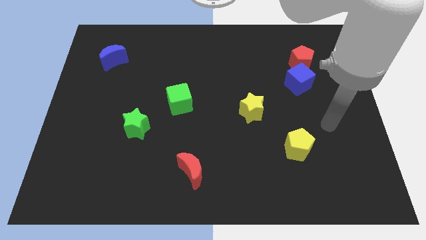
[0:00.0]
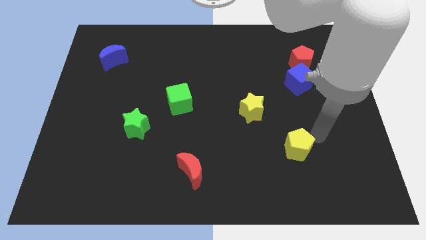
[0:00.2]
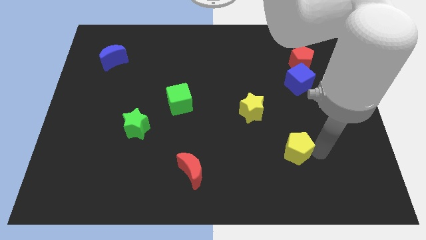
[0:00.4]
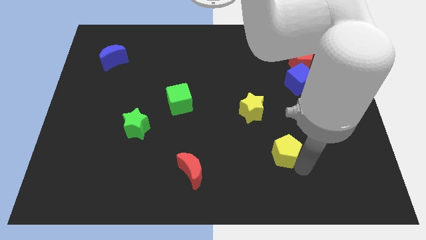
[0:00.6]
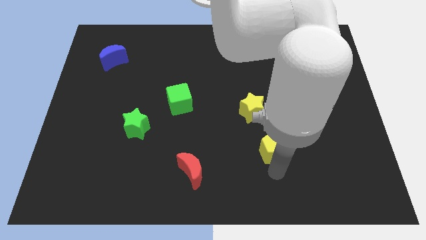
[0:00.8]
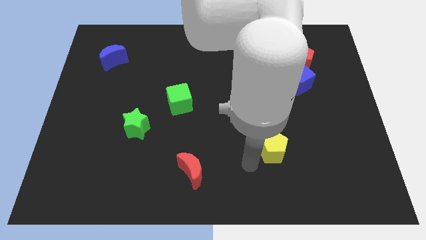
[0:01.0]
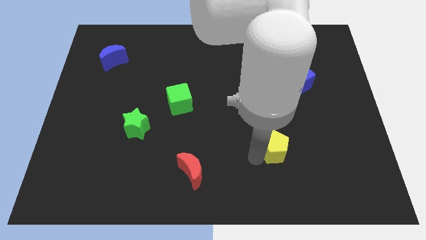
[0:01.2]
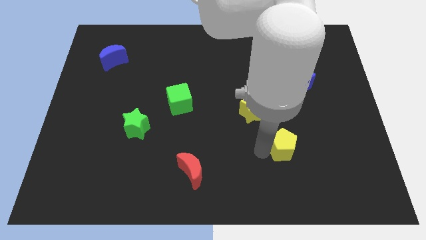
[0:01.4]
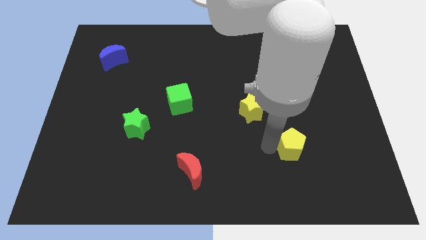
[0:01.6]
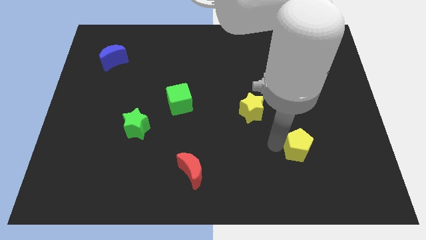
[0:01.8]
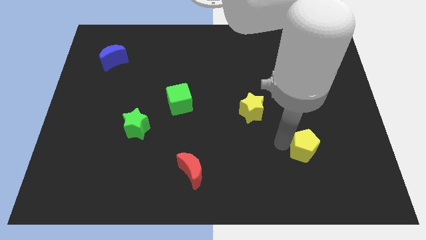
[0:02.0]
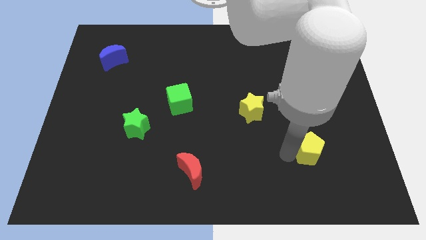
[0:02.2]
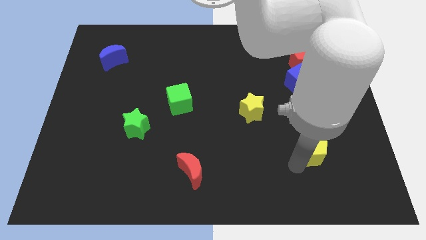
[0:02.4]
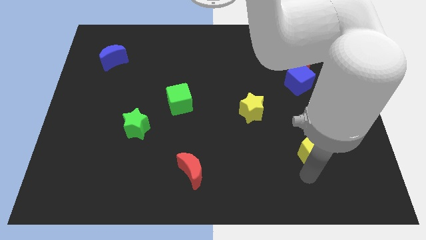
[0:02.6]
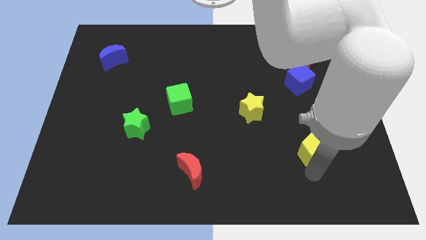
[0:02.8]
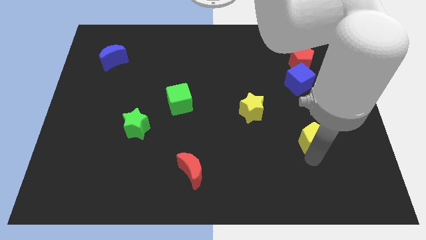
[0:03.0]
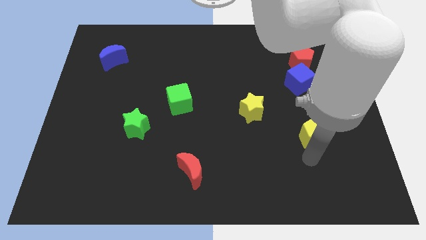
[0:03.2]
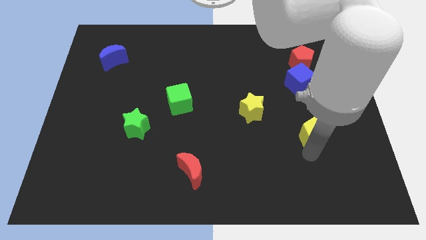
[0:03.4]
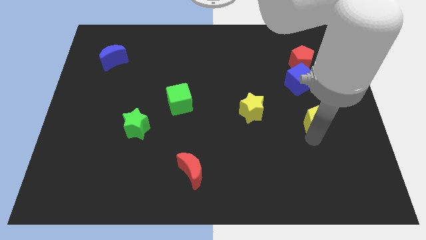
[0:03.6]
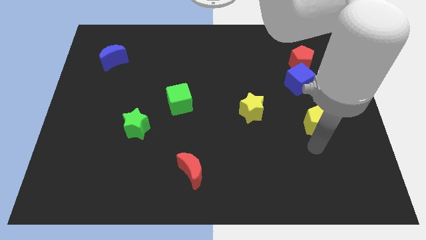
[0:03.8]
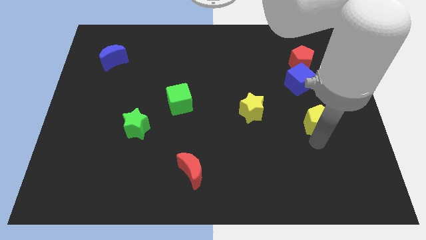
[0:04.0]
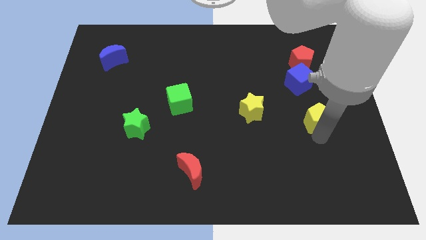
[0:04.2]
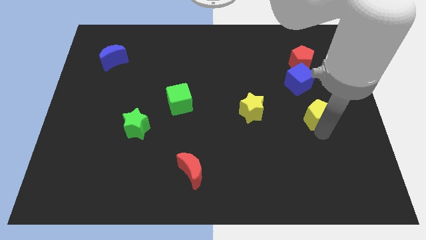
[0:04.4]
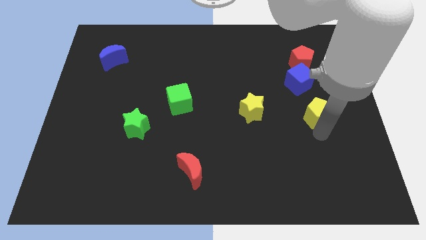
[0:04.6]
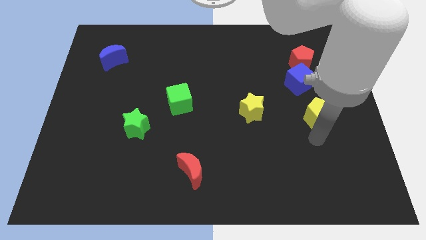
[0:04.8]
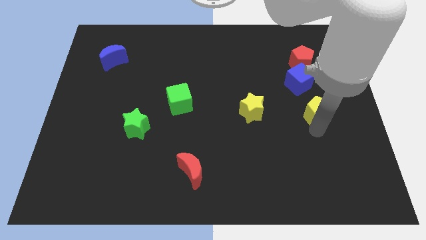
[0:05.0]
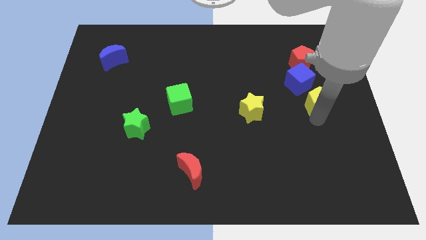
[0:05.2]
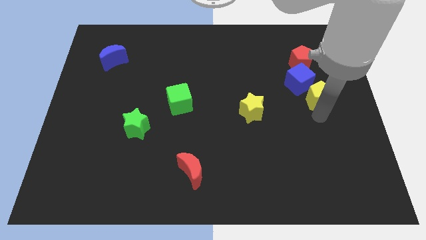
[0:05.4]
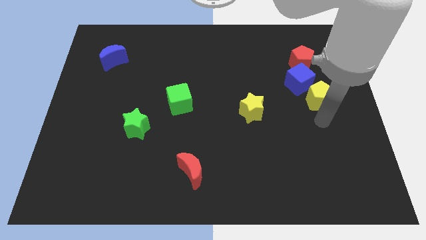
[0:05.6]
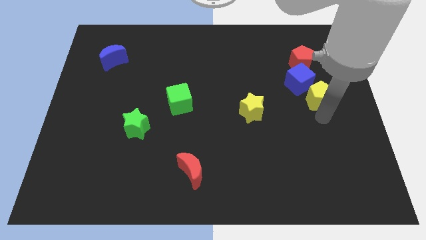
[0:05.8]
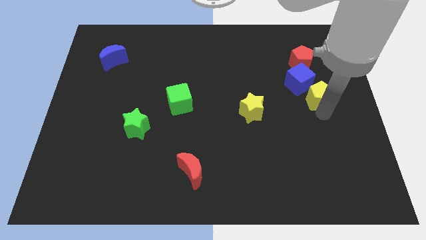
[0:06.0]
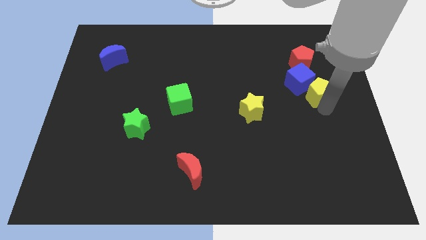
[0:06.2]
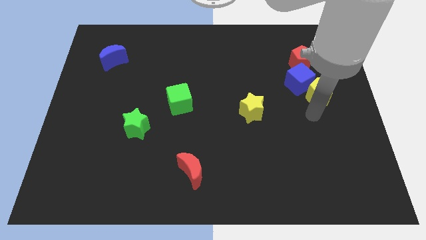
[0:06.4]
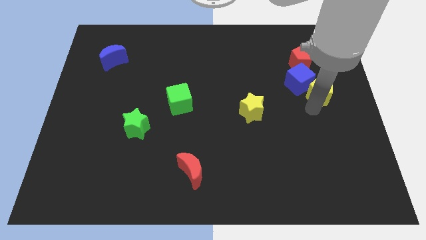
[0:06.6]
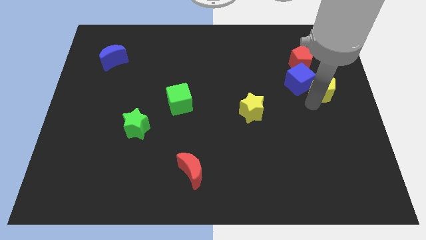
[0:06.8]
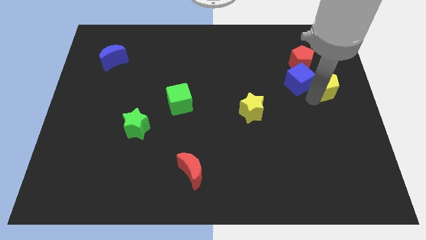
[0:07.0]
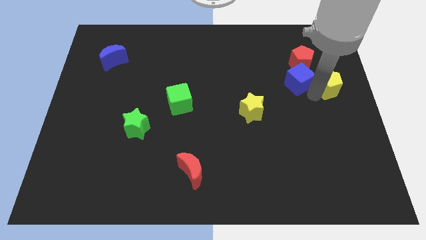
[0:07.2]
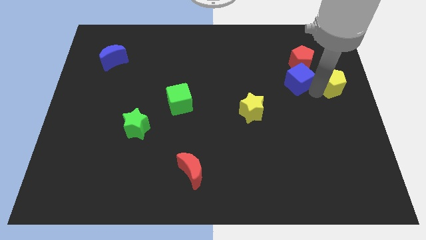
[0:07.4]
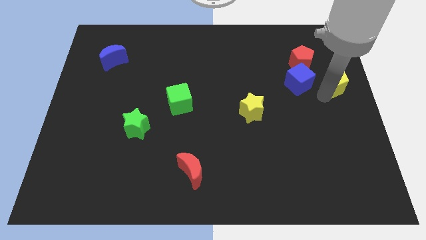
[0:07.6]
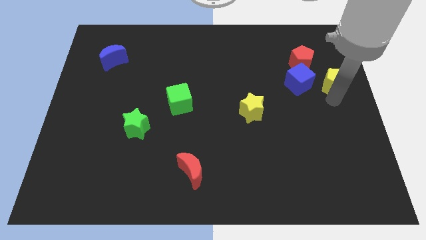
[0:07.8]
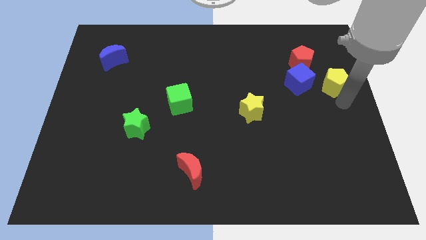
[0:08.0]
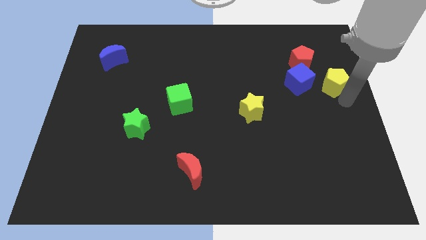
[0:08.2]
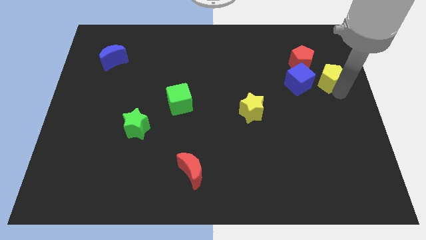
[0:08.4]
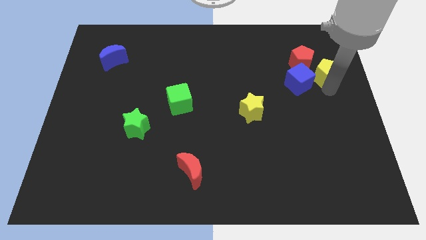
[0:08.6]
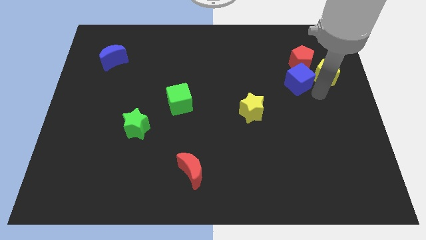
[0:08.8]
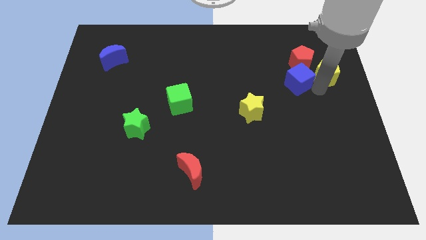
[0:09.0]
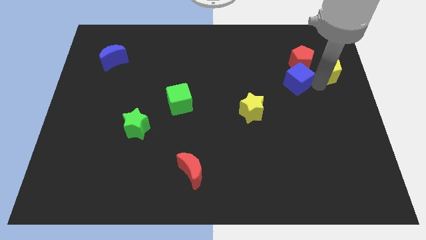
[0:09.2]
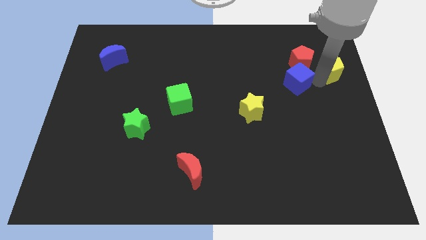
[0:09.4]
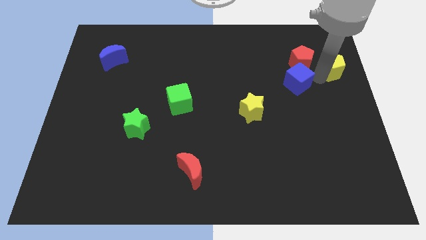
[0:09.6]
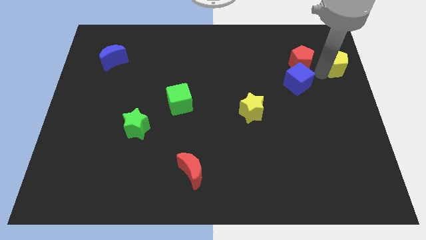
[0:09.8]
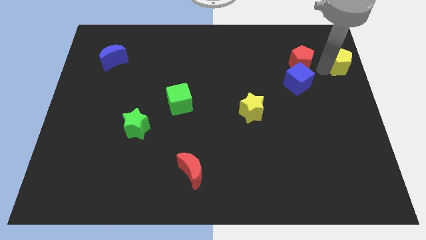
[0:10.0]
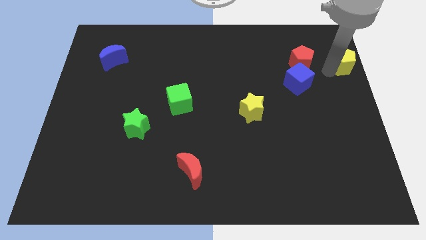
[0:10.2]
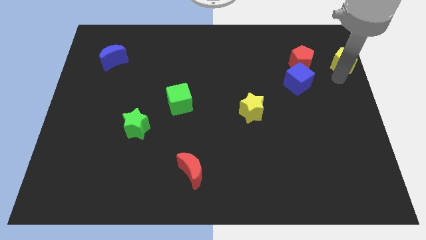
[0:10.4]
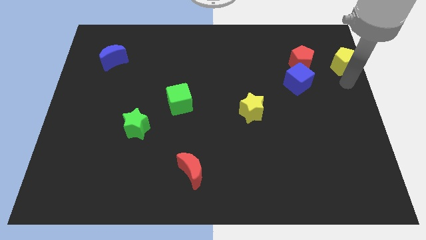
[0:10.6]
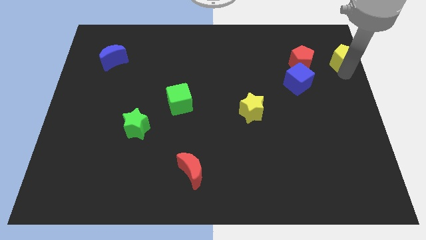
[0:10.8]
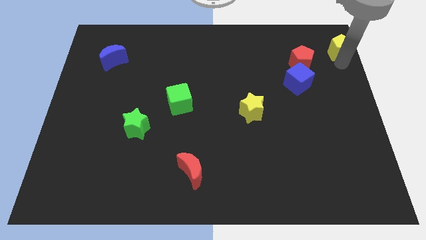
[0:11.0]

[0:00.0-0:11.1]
slide the yellow pentagon to the top right corner

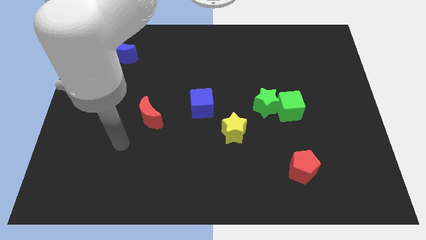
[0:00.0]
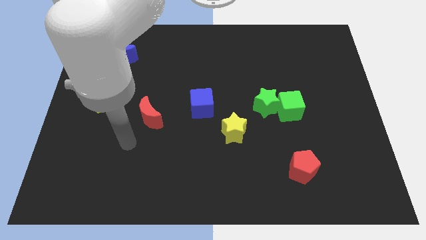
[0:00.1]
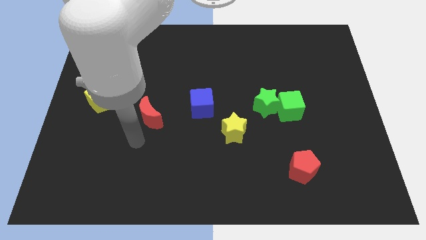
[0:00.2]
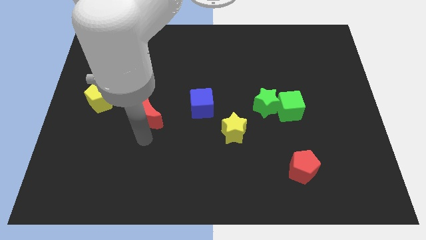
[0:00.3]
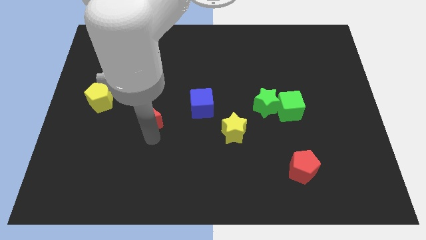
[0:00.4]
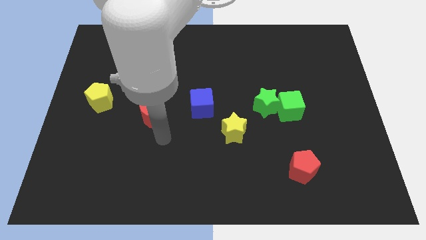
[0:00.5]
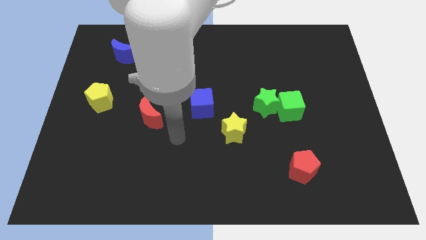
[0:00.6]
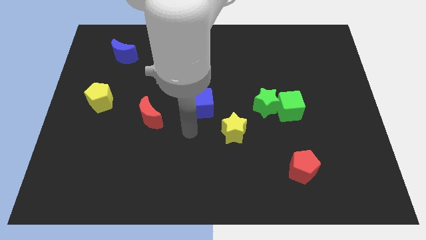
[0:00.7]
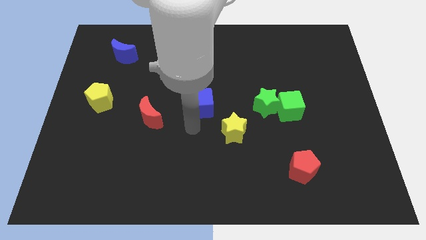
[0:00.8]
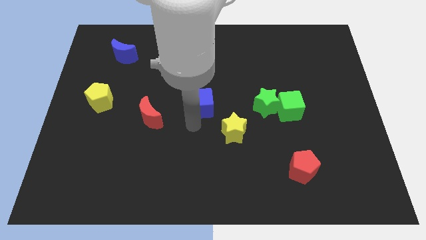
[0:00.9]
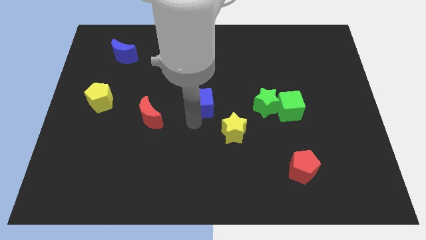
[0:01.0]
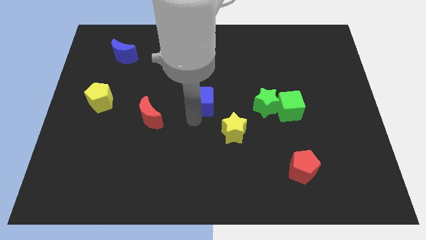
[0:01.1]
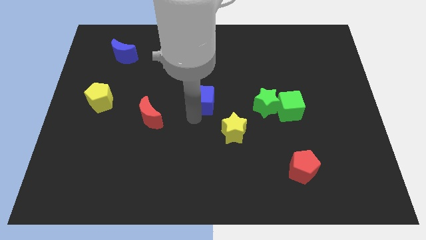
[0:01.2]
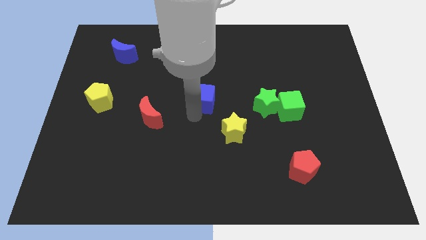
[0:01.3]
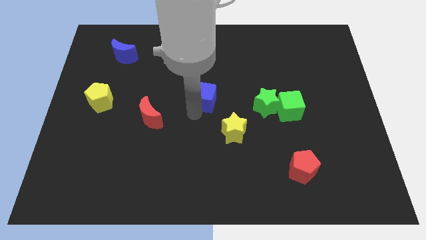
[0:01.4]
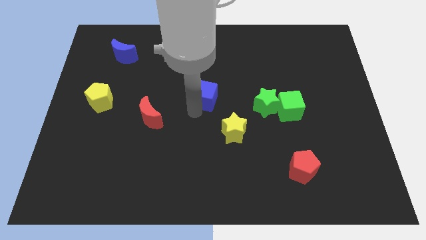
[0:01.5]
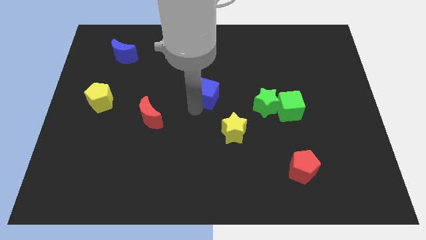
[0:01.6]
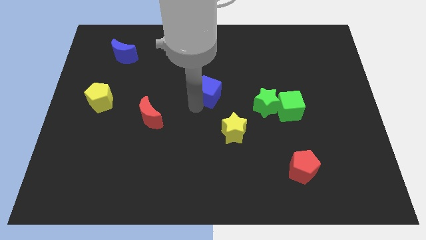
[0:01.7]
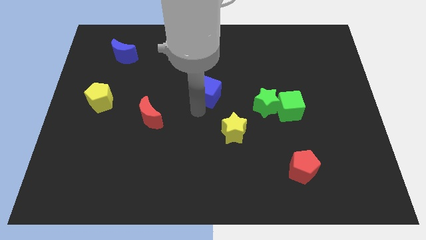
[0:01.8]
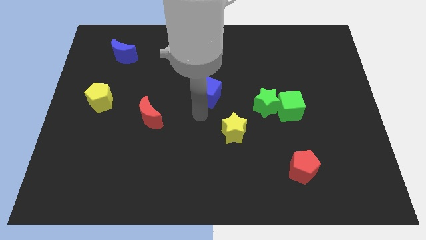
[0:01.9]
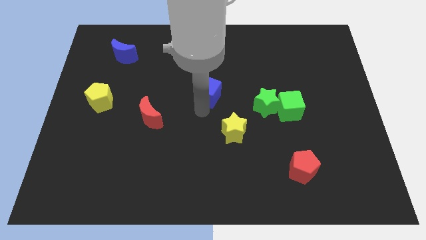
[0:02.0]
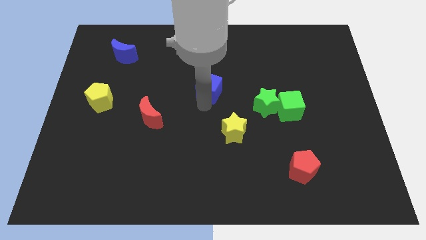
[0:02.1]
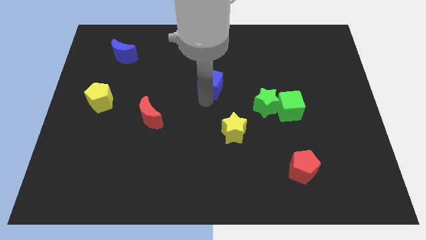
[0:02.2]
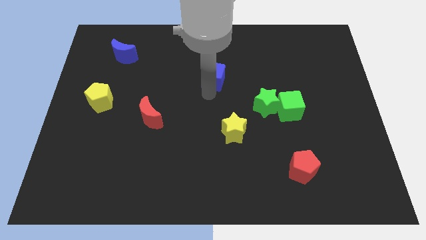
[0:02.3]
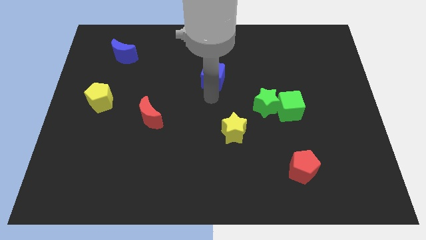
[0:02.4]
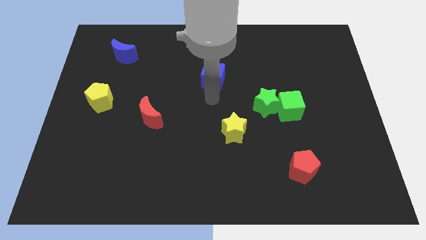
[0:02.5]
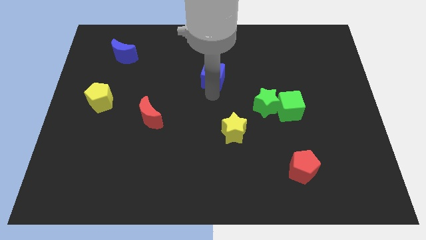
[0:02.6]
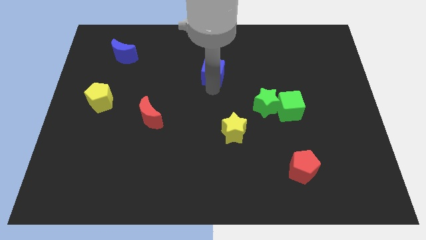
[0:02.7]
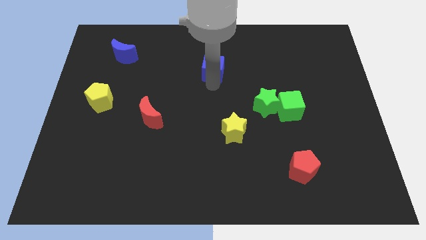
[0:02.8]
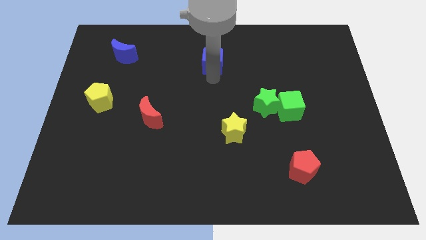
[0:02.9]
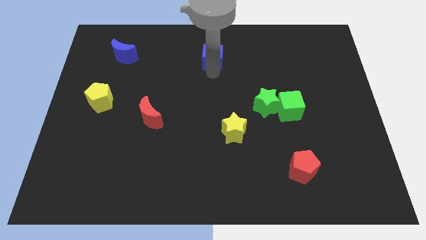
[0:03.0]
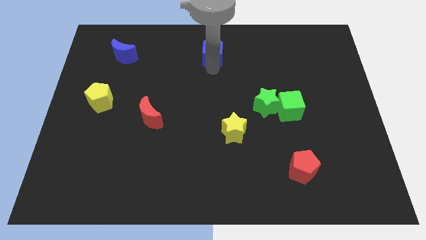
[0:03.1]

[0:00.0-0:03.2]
put the blue cube to the towards your base
